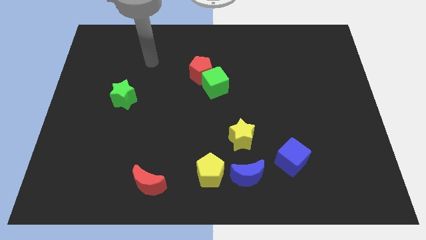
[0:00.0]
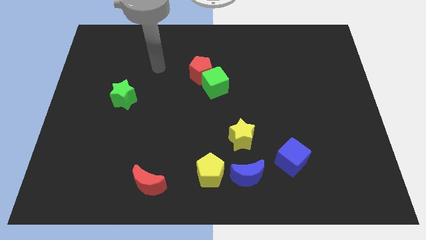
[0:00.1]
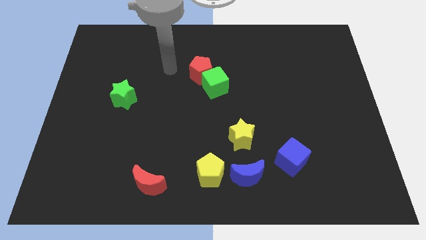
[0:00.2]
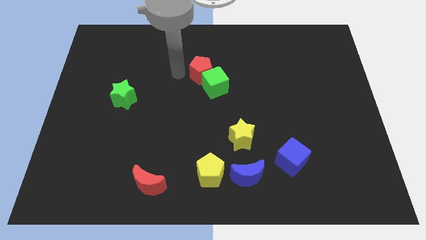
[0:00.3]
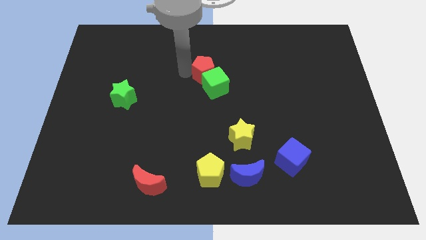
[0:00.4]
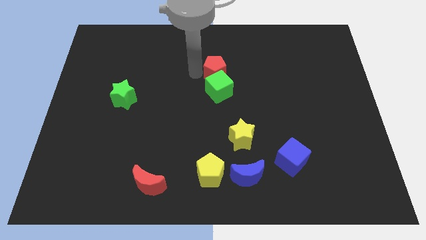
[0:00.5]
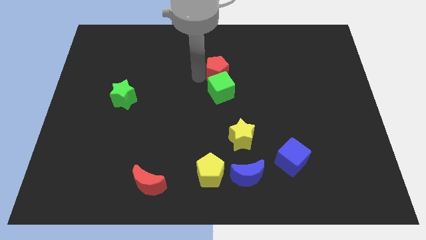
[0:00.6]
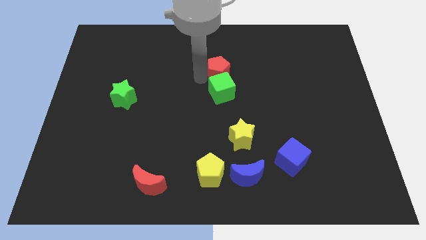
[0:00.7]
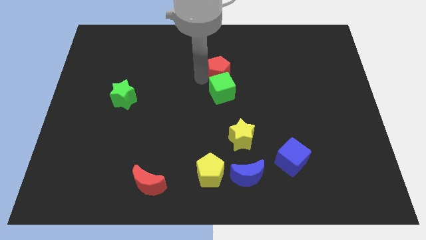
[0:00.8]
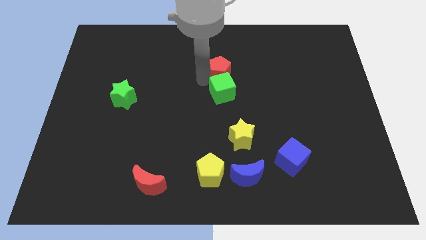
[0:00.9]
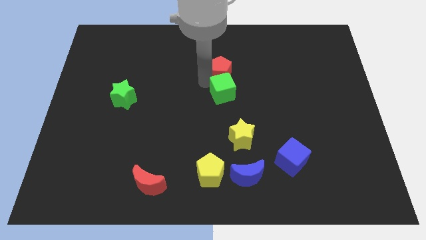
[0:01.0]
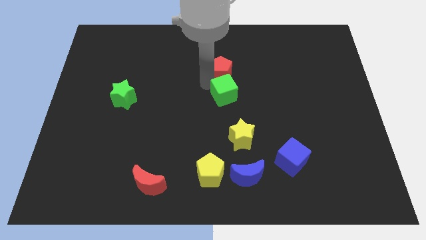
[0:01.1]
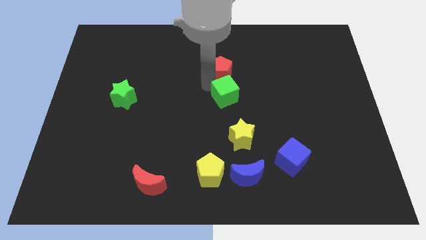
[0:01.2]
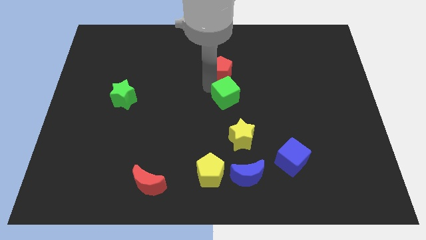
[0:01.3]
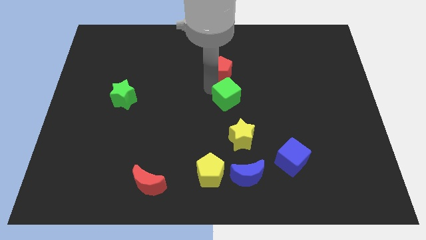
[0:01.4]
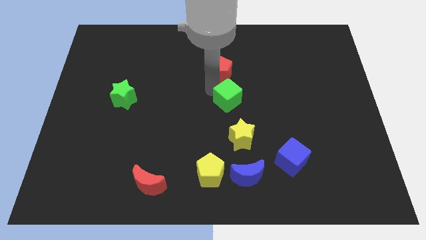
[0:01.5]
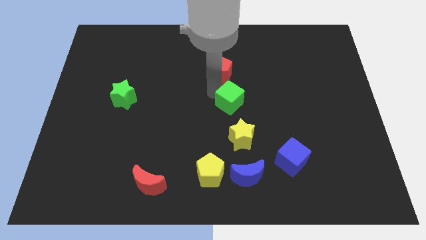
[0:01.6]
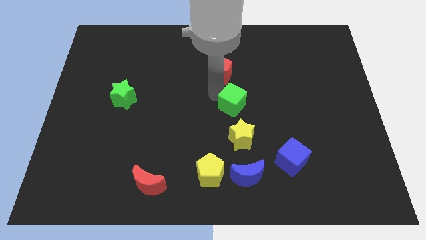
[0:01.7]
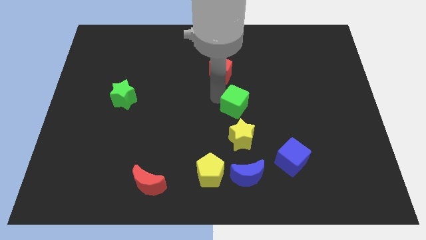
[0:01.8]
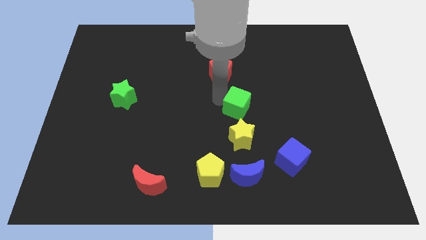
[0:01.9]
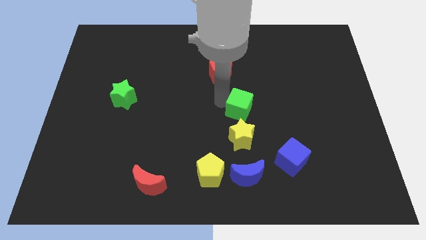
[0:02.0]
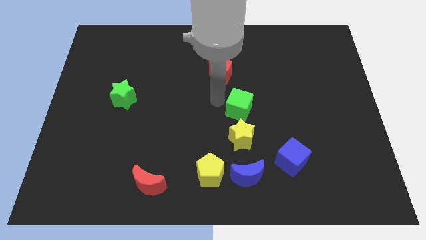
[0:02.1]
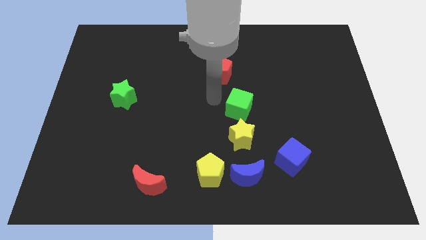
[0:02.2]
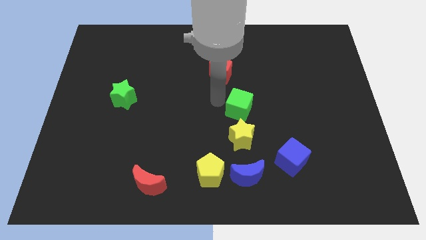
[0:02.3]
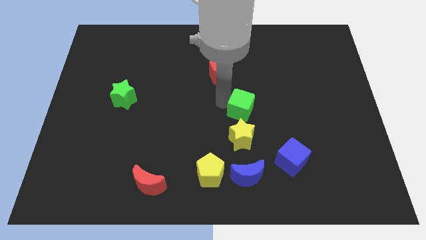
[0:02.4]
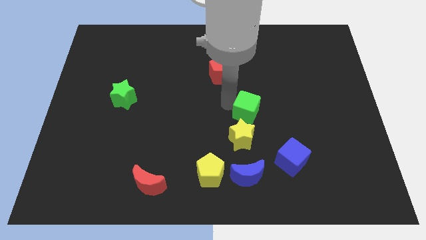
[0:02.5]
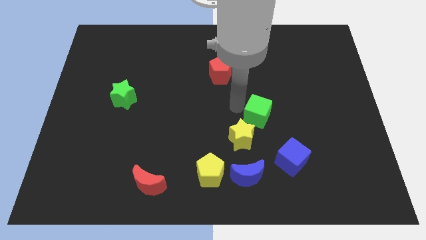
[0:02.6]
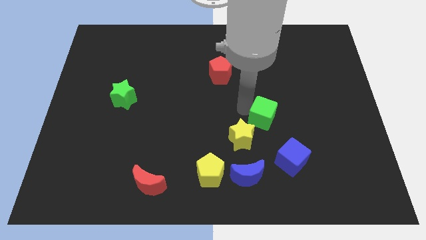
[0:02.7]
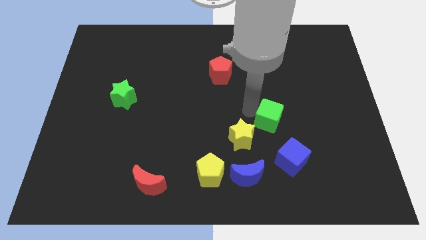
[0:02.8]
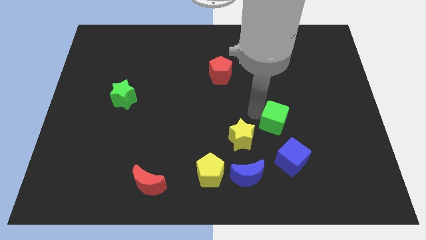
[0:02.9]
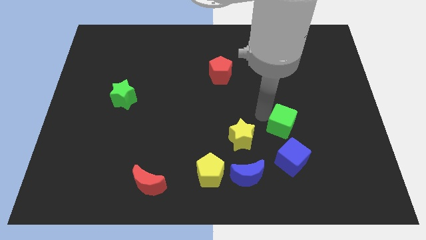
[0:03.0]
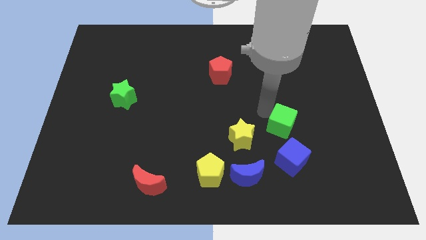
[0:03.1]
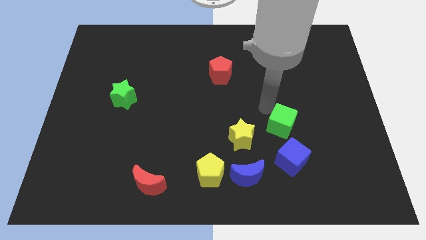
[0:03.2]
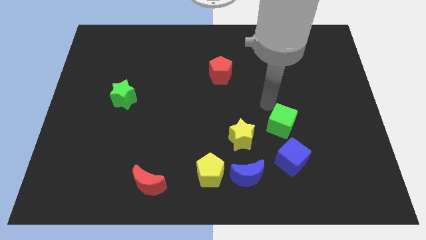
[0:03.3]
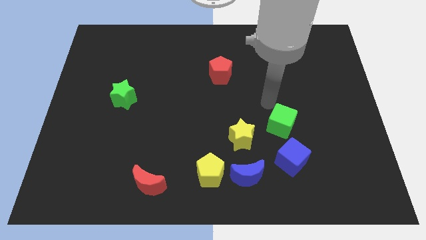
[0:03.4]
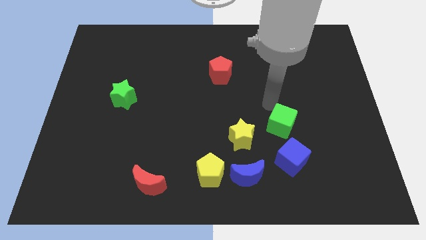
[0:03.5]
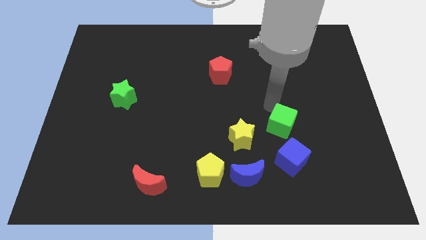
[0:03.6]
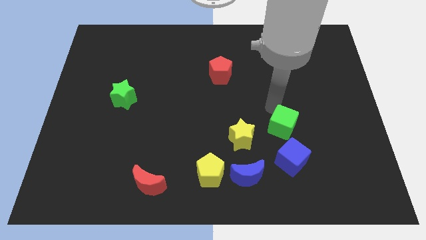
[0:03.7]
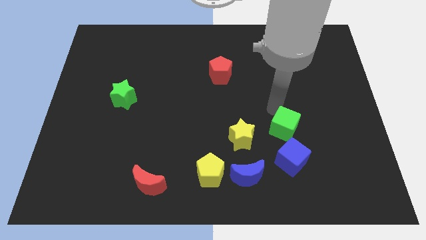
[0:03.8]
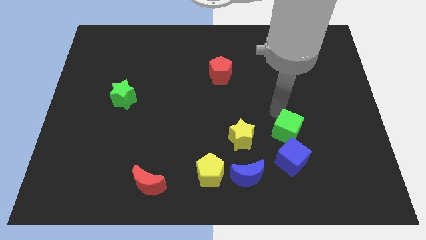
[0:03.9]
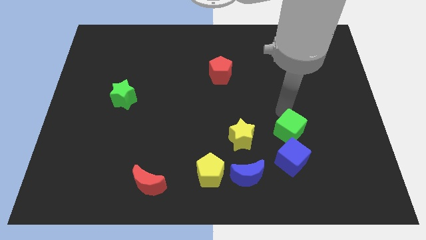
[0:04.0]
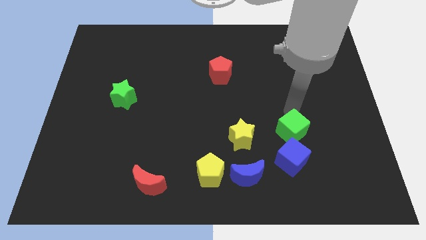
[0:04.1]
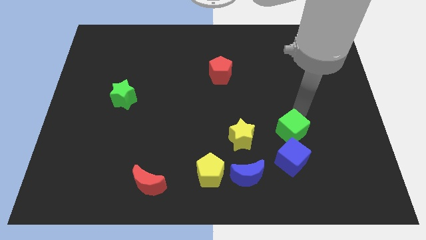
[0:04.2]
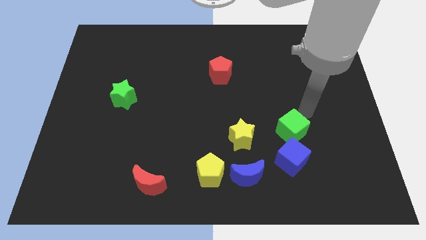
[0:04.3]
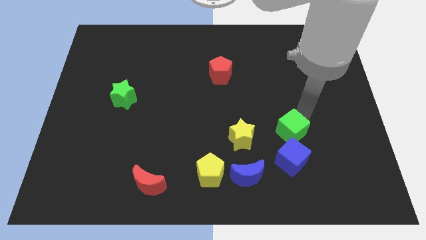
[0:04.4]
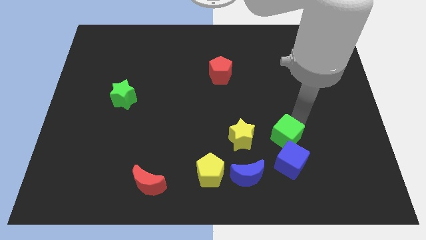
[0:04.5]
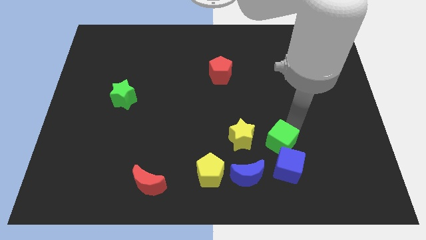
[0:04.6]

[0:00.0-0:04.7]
put the green cube diagonally up and to the right of the blue moon

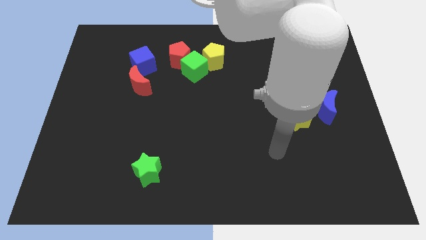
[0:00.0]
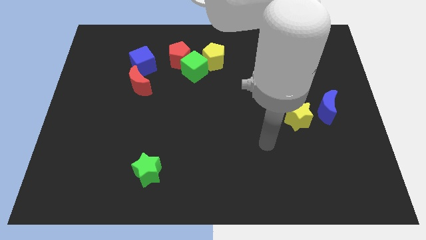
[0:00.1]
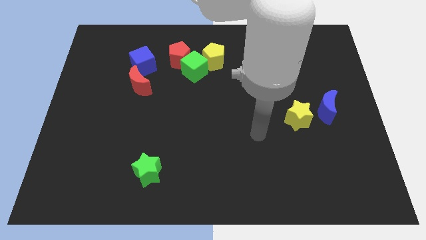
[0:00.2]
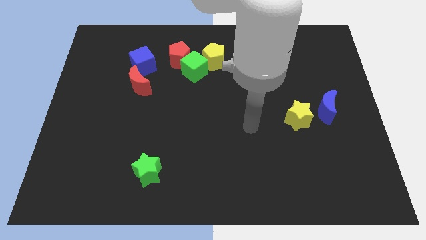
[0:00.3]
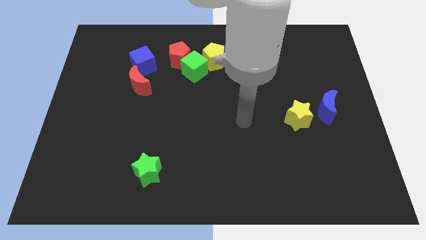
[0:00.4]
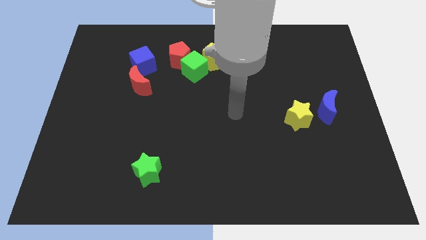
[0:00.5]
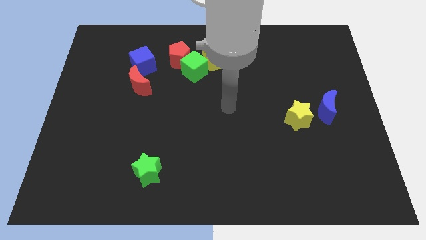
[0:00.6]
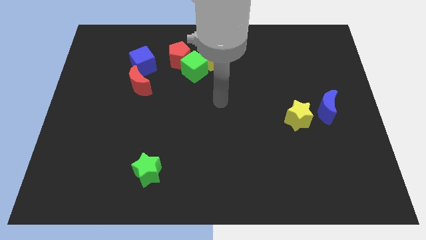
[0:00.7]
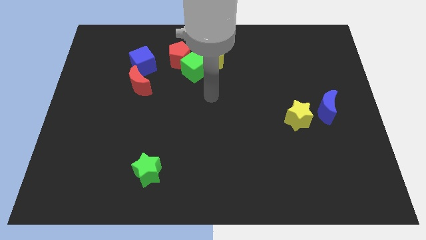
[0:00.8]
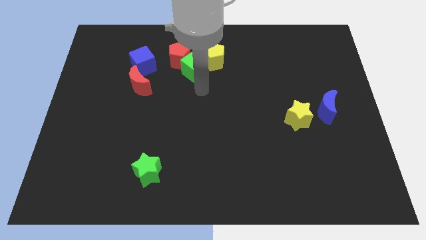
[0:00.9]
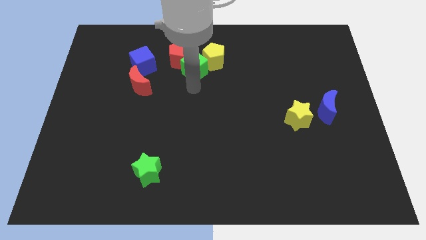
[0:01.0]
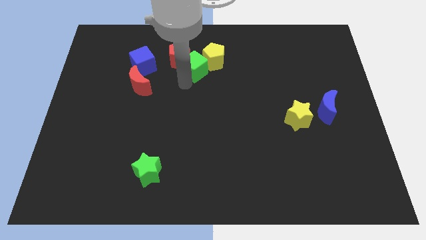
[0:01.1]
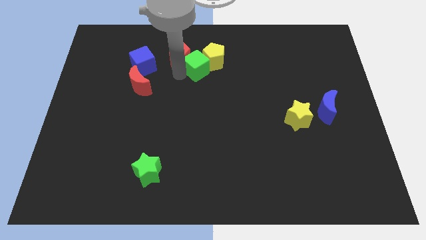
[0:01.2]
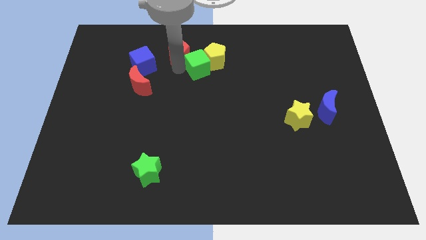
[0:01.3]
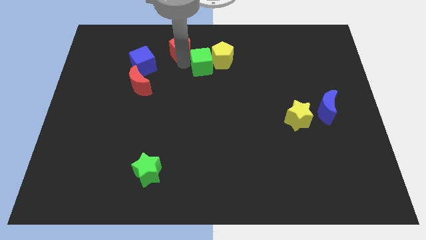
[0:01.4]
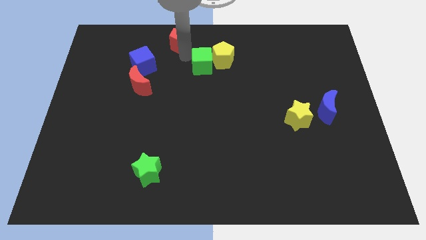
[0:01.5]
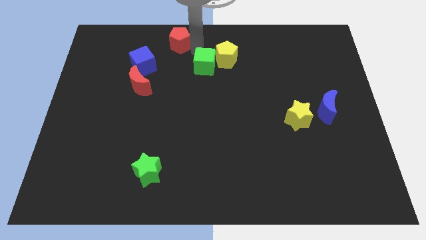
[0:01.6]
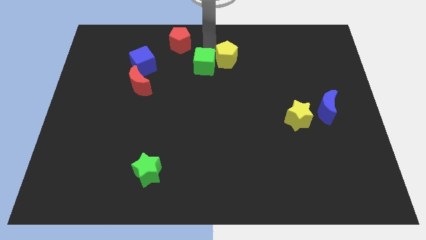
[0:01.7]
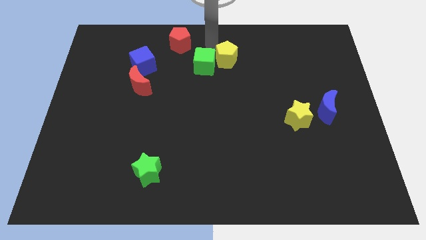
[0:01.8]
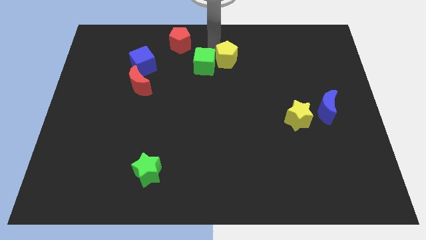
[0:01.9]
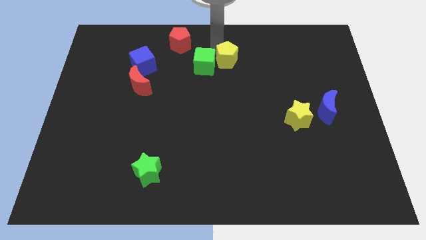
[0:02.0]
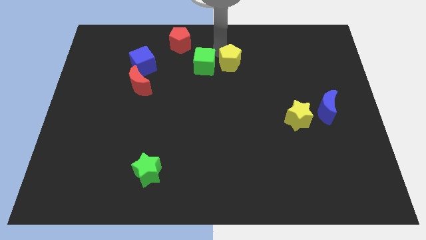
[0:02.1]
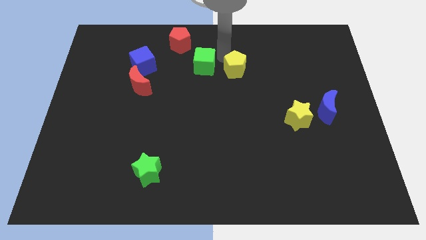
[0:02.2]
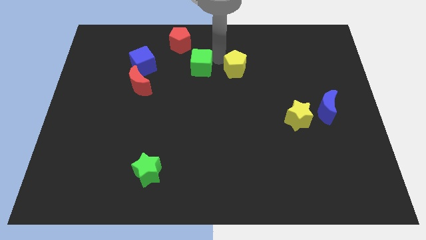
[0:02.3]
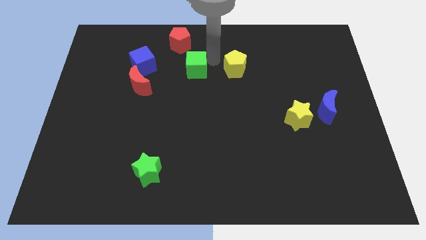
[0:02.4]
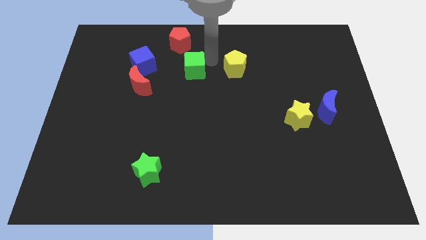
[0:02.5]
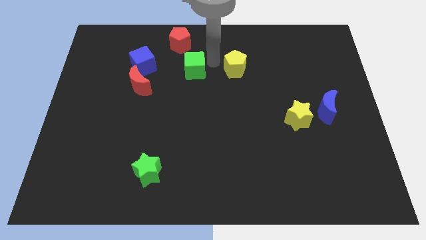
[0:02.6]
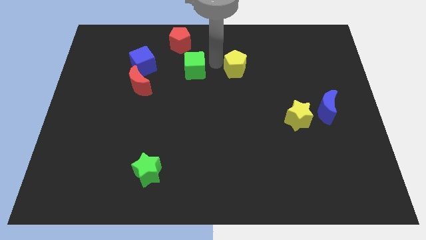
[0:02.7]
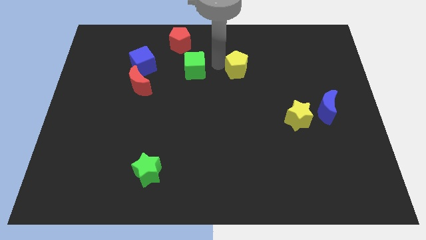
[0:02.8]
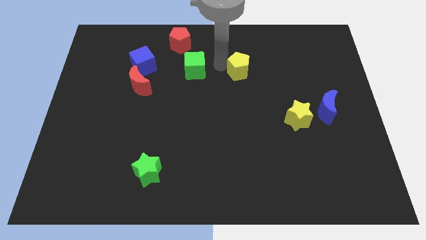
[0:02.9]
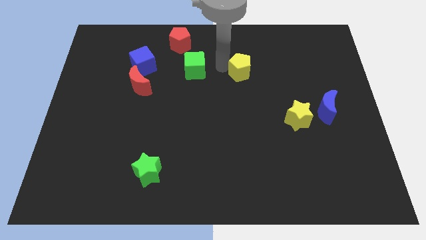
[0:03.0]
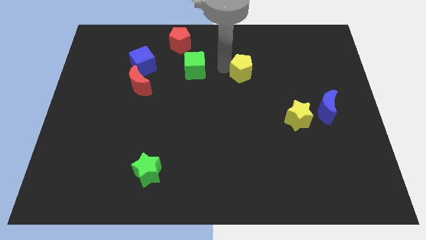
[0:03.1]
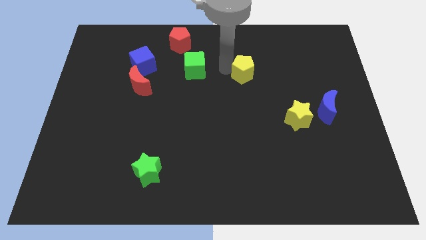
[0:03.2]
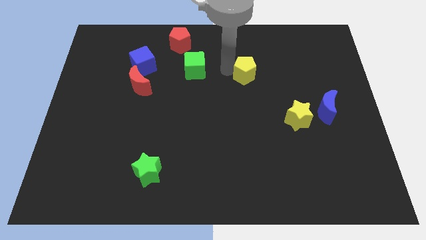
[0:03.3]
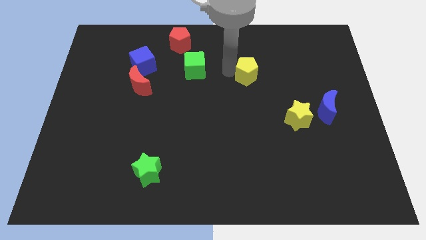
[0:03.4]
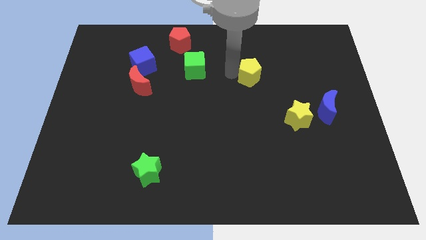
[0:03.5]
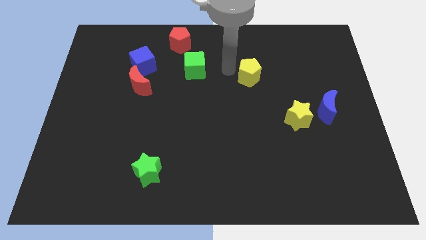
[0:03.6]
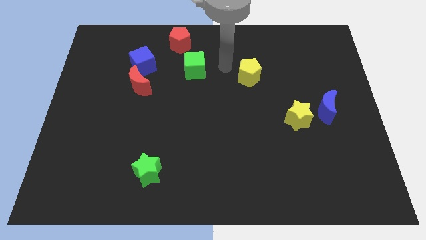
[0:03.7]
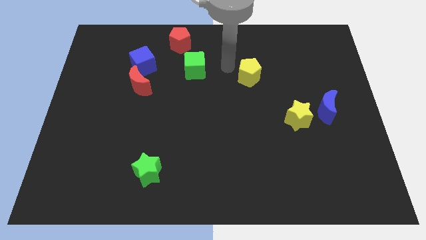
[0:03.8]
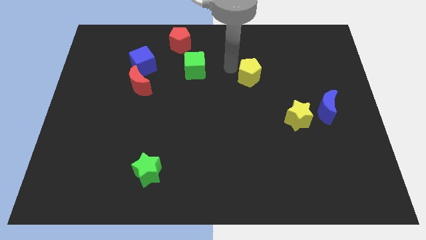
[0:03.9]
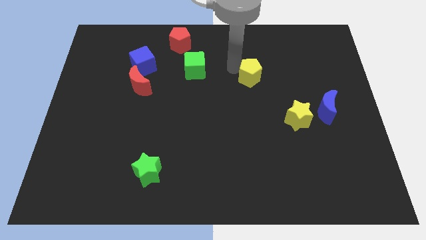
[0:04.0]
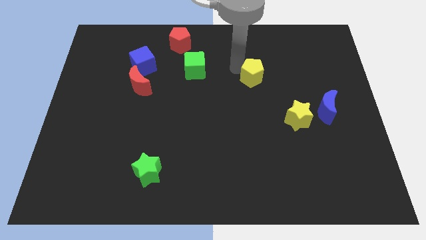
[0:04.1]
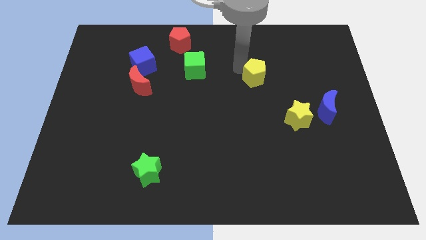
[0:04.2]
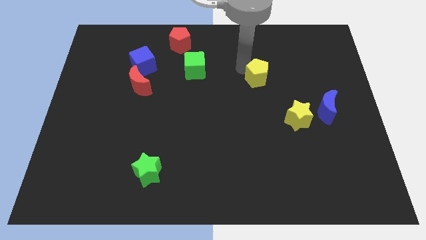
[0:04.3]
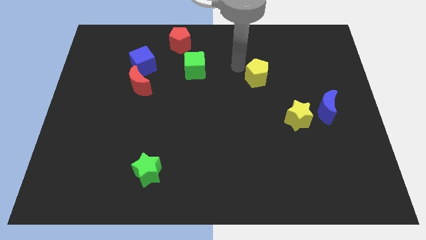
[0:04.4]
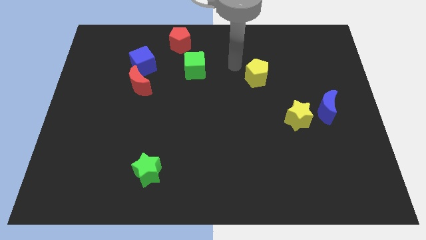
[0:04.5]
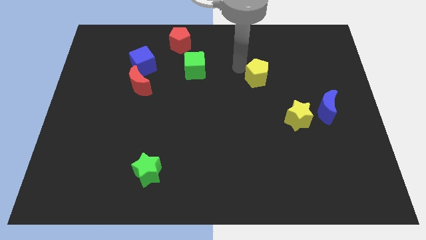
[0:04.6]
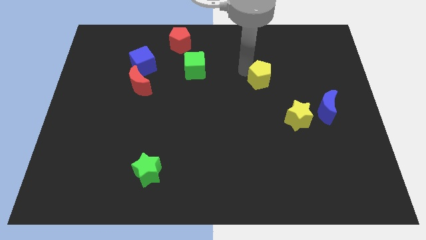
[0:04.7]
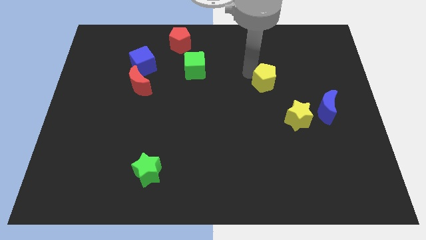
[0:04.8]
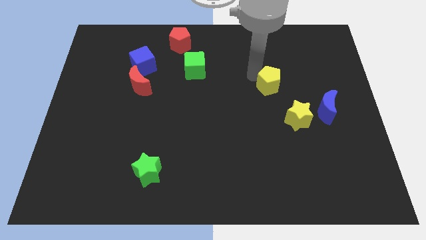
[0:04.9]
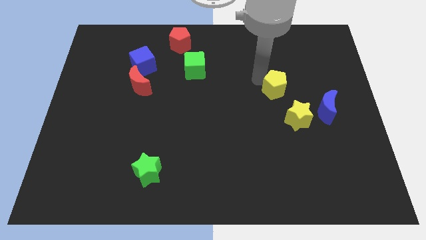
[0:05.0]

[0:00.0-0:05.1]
push the yellow pentagon to the top of the yellow star
